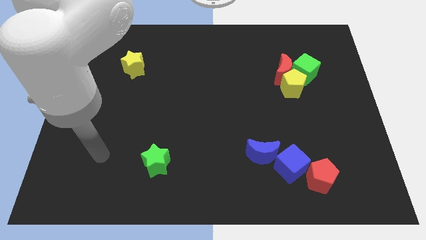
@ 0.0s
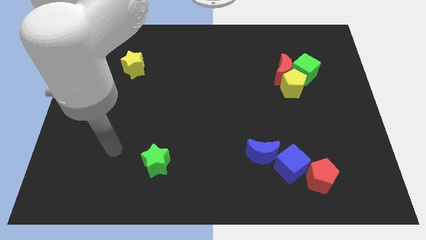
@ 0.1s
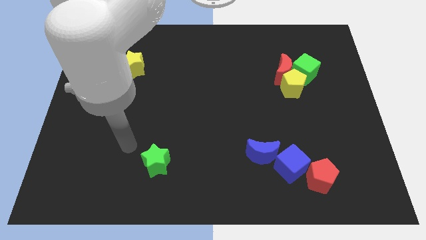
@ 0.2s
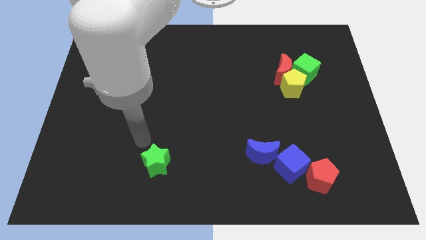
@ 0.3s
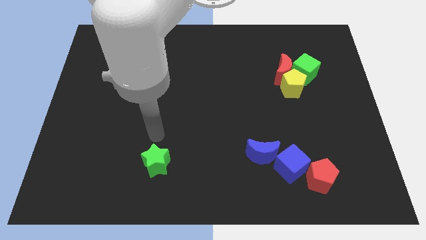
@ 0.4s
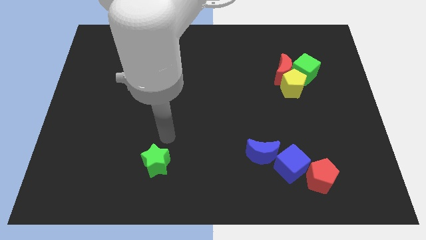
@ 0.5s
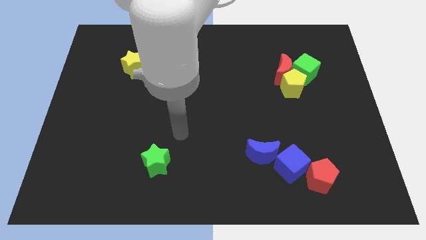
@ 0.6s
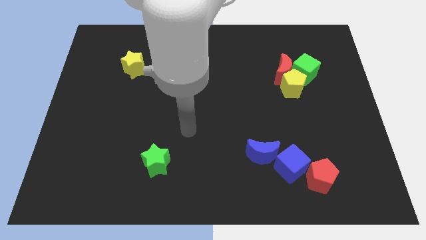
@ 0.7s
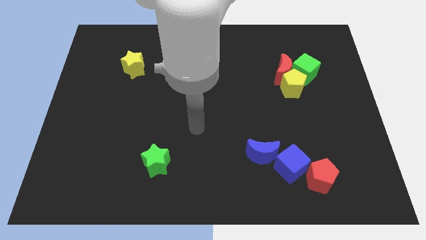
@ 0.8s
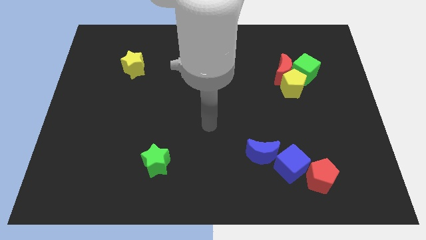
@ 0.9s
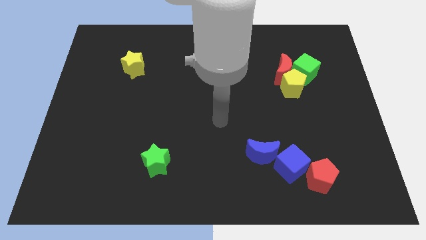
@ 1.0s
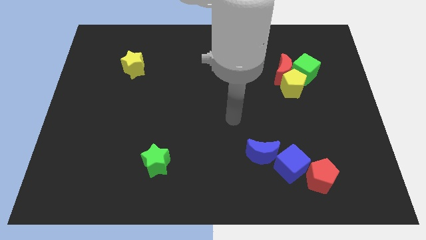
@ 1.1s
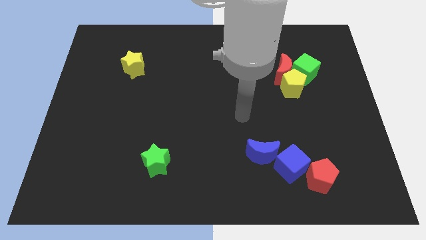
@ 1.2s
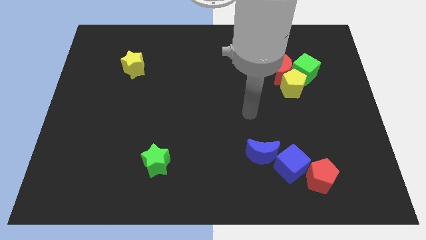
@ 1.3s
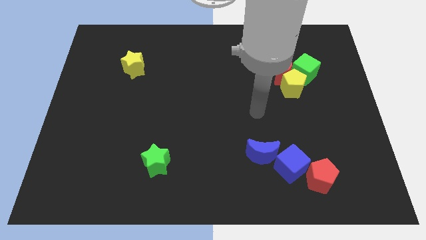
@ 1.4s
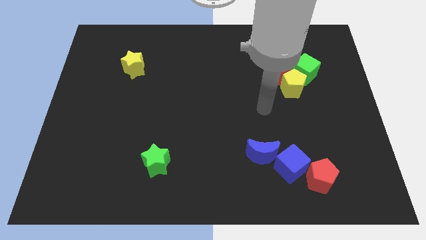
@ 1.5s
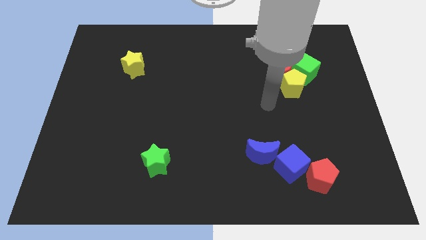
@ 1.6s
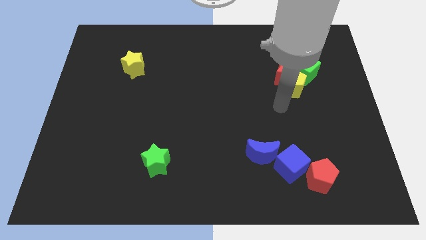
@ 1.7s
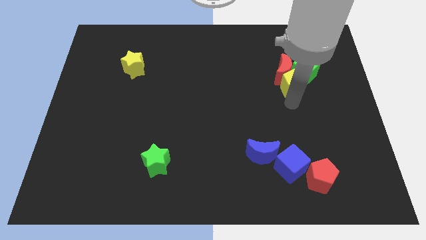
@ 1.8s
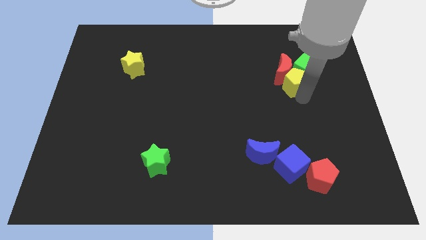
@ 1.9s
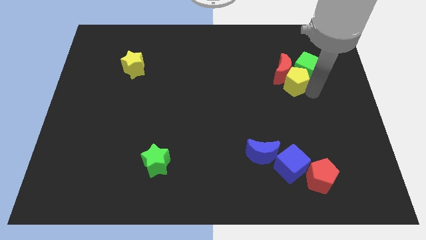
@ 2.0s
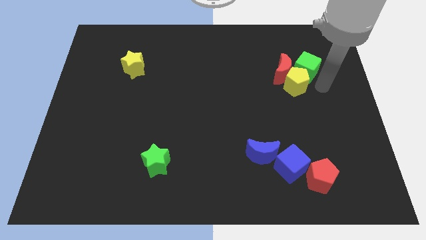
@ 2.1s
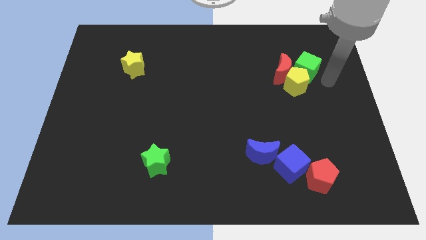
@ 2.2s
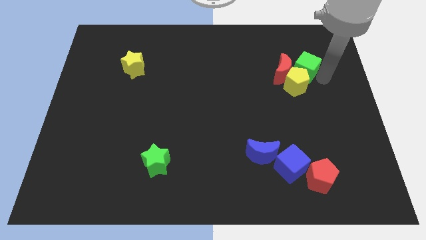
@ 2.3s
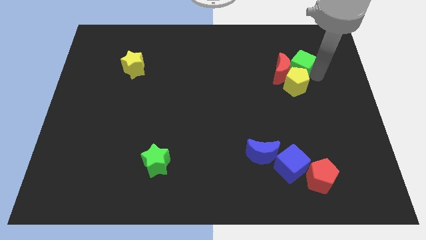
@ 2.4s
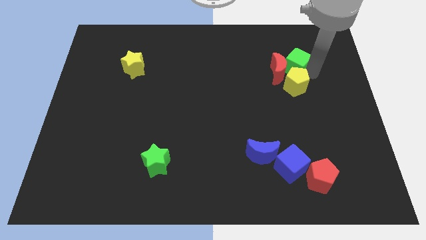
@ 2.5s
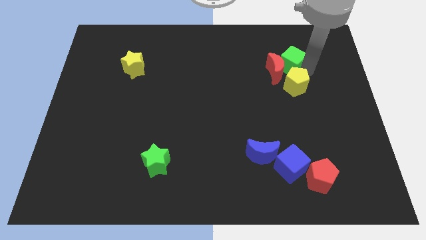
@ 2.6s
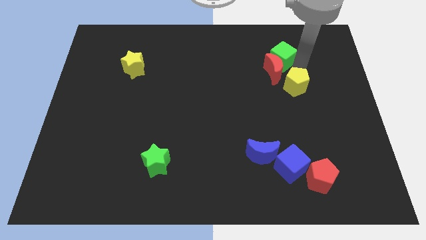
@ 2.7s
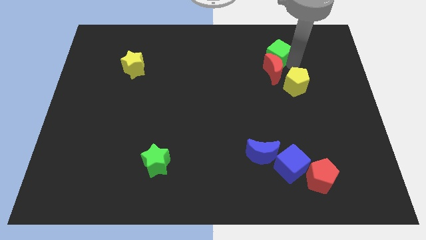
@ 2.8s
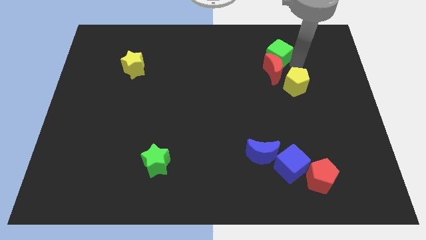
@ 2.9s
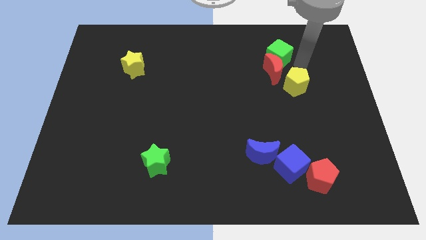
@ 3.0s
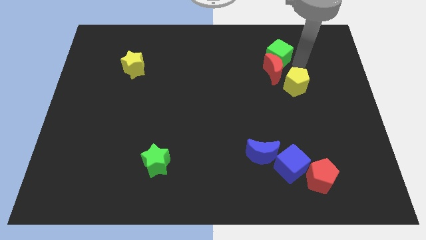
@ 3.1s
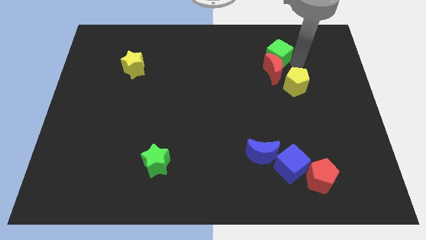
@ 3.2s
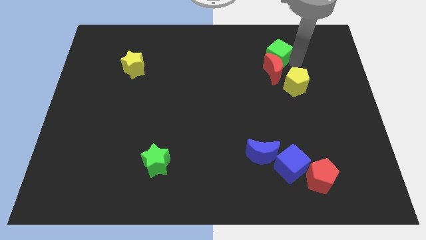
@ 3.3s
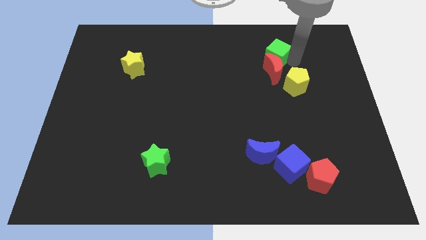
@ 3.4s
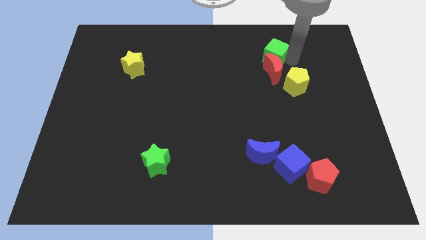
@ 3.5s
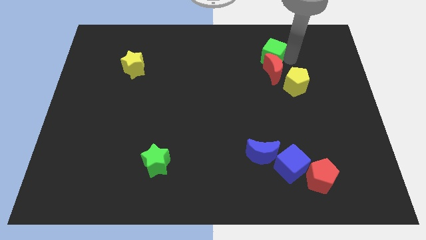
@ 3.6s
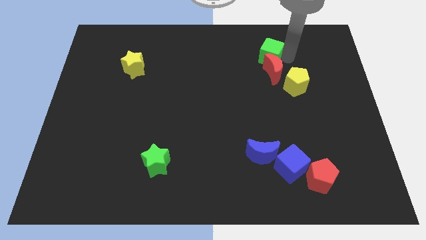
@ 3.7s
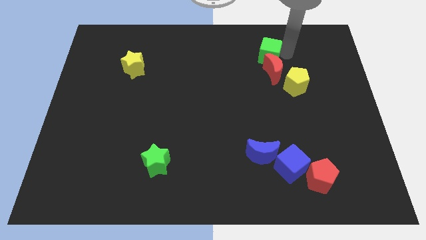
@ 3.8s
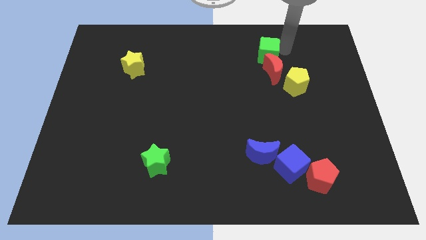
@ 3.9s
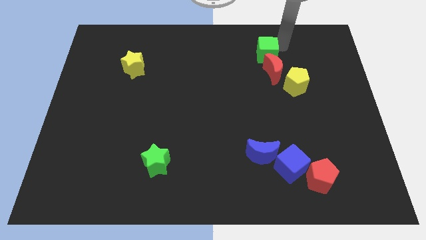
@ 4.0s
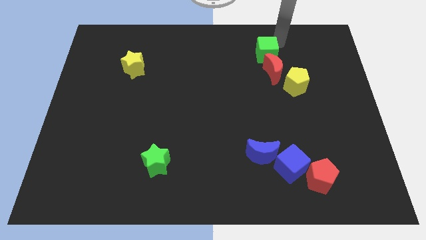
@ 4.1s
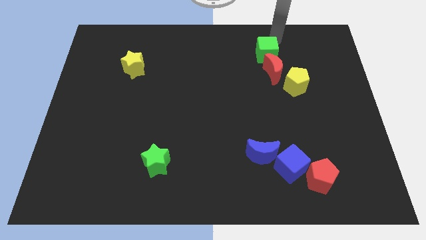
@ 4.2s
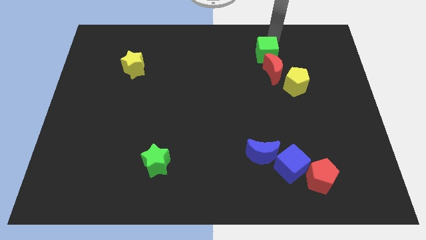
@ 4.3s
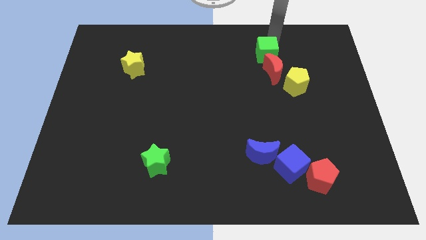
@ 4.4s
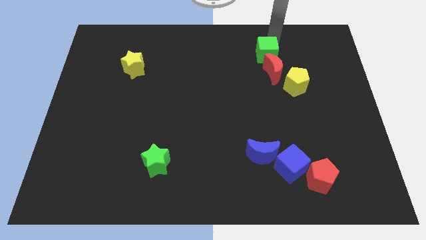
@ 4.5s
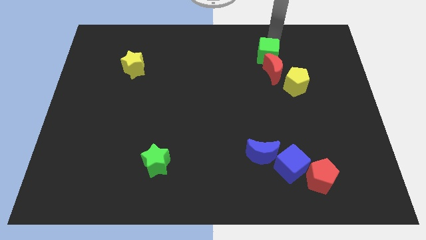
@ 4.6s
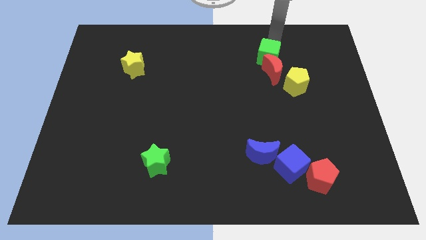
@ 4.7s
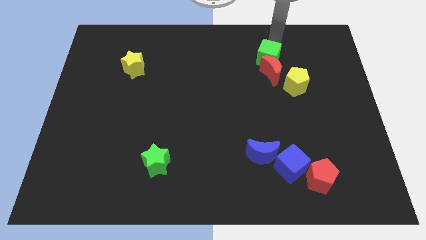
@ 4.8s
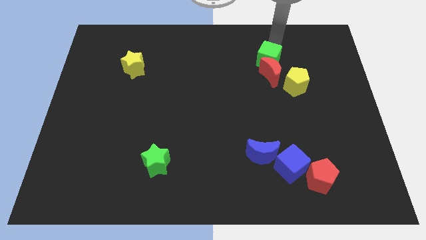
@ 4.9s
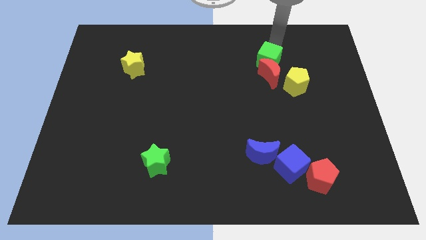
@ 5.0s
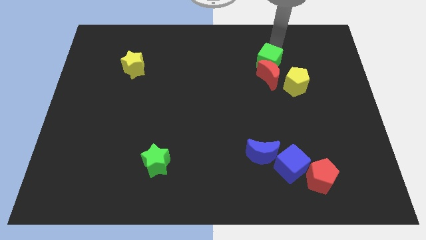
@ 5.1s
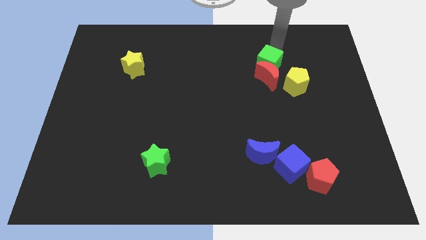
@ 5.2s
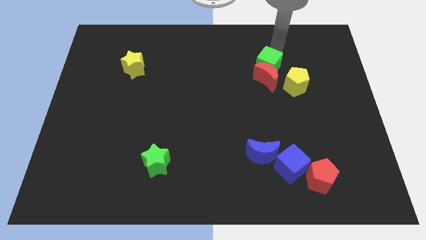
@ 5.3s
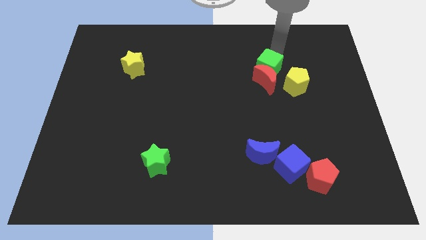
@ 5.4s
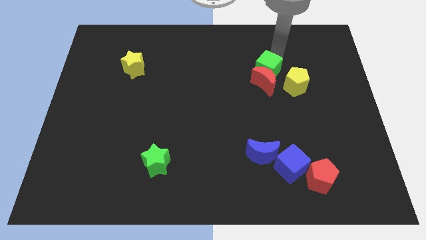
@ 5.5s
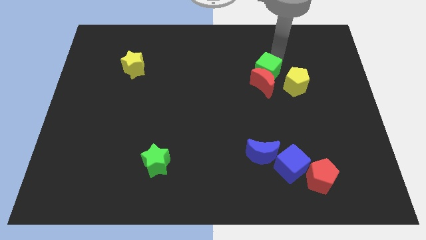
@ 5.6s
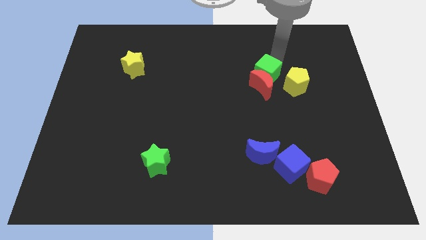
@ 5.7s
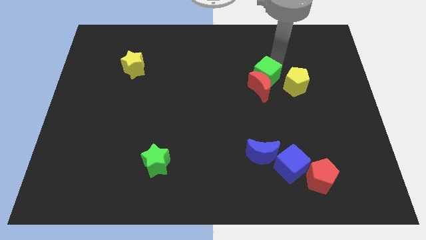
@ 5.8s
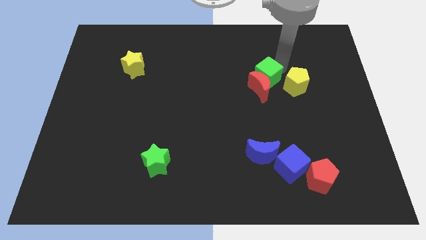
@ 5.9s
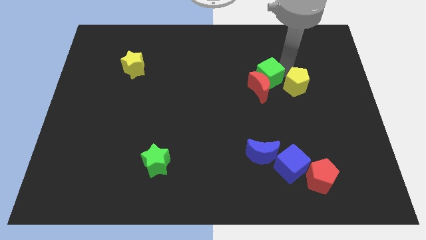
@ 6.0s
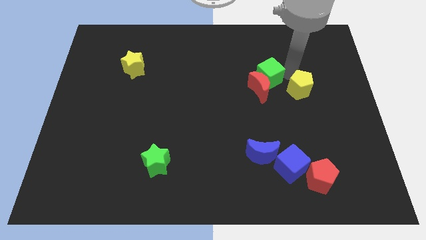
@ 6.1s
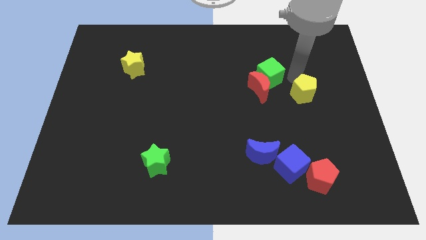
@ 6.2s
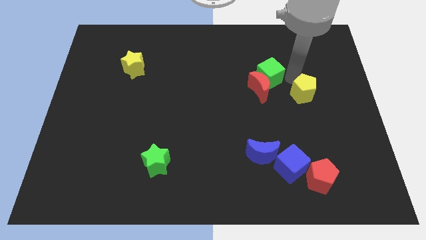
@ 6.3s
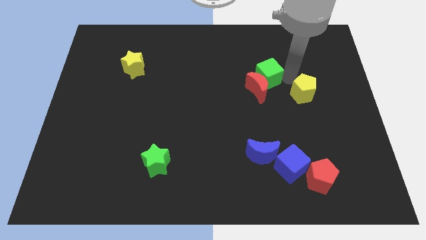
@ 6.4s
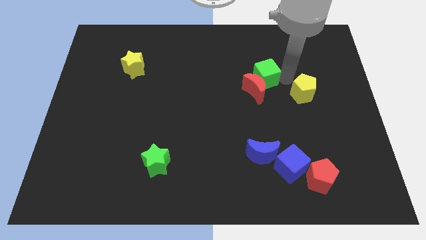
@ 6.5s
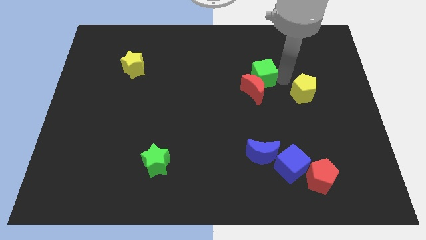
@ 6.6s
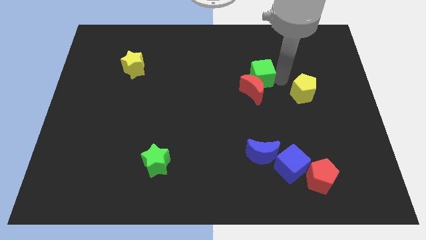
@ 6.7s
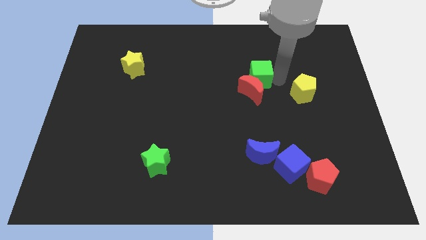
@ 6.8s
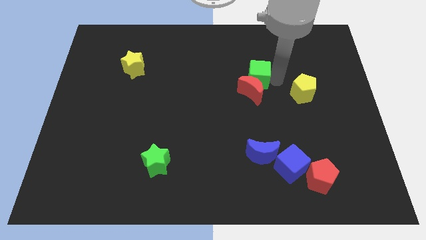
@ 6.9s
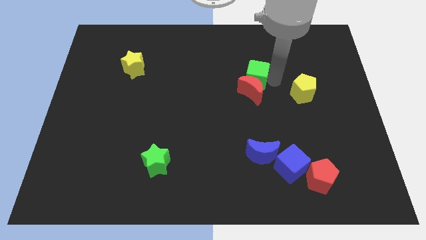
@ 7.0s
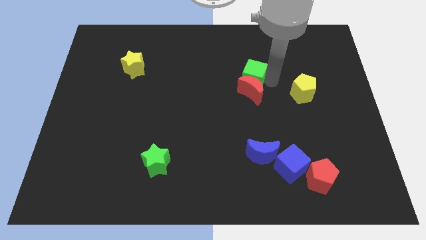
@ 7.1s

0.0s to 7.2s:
put the green cube to the middle of the board
